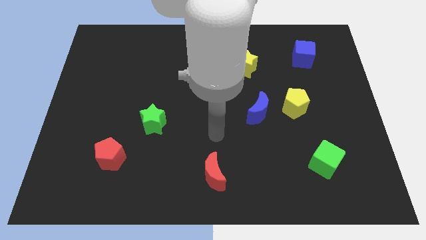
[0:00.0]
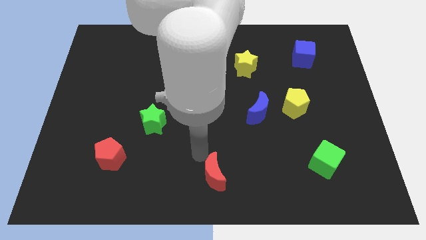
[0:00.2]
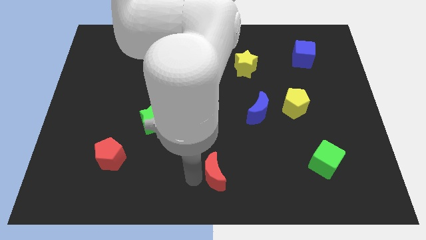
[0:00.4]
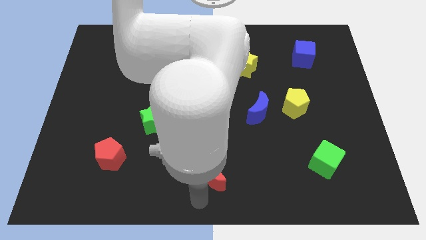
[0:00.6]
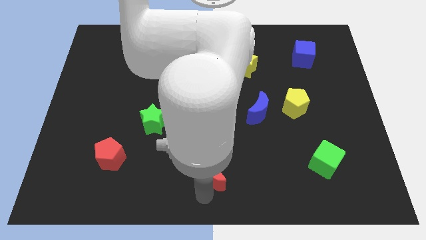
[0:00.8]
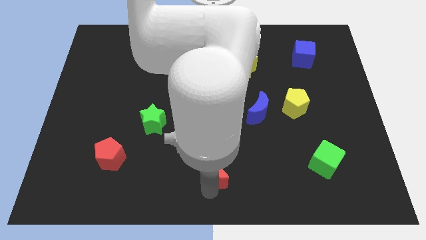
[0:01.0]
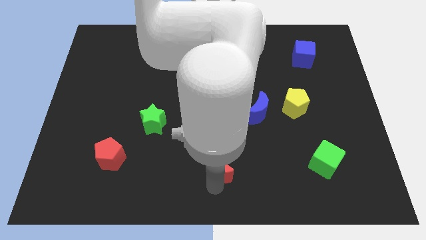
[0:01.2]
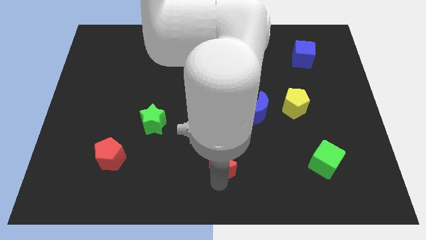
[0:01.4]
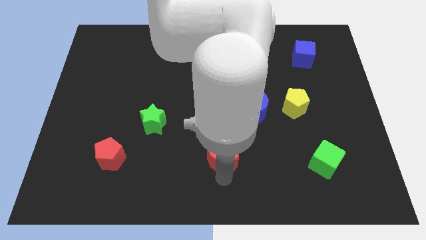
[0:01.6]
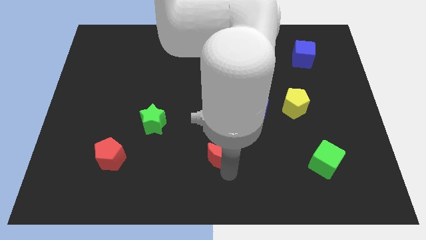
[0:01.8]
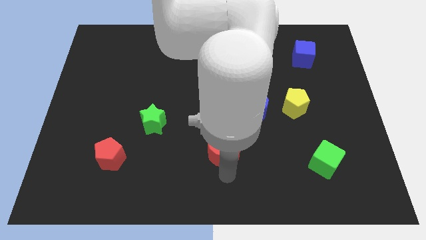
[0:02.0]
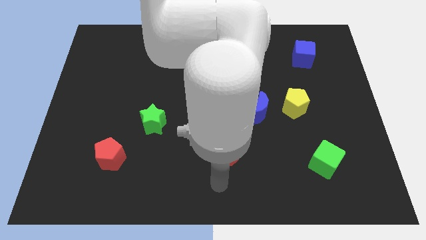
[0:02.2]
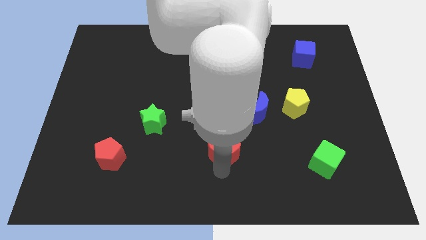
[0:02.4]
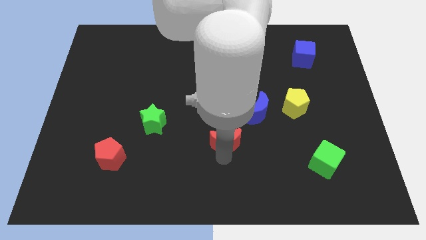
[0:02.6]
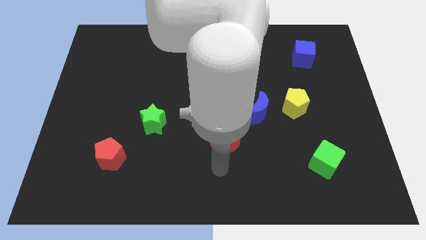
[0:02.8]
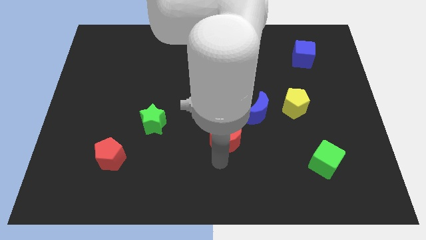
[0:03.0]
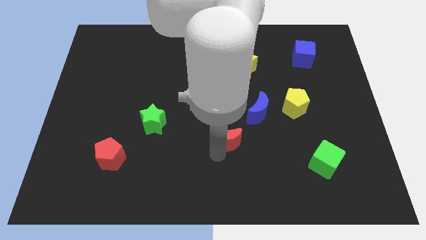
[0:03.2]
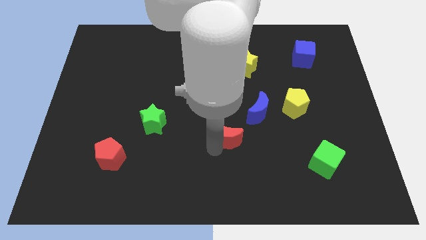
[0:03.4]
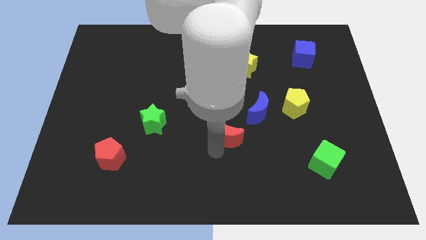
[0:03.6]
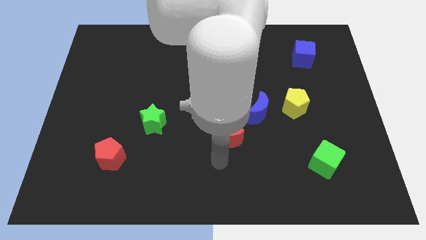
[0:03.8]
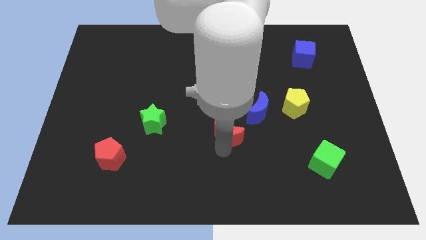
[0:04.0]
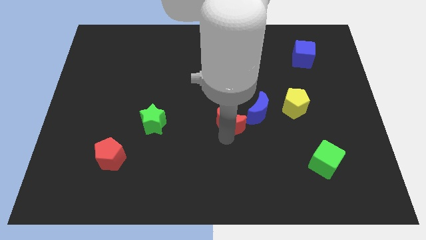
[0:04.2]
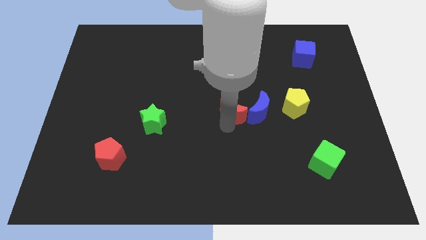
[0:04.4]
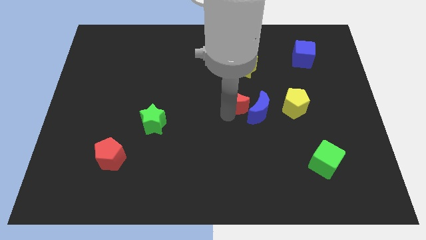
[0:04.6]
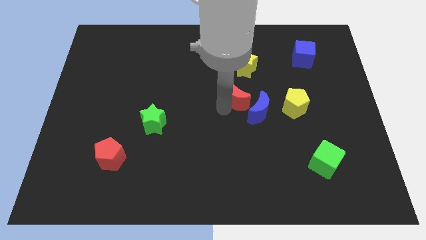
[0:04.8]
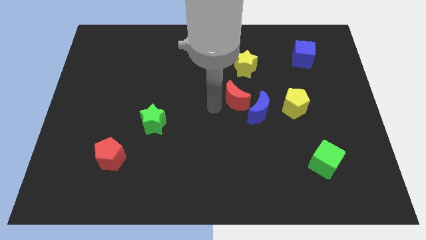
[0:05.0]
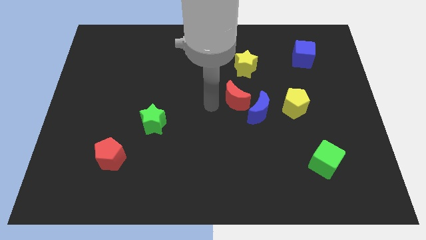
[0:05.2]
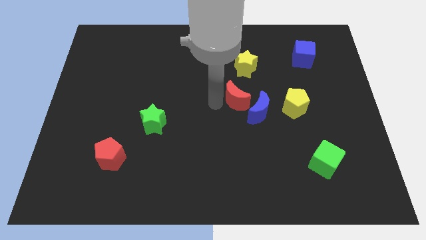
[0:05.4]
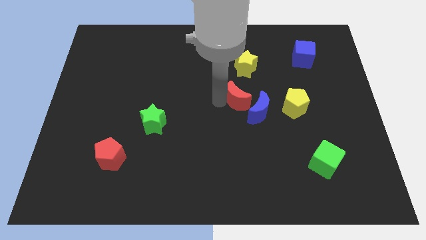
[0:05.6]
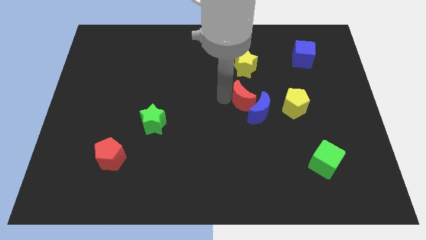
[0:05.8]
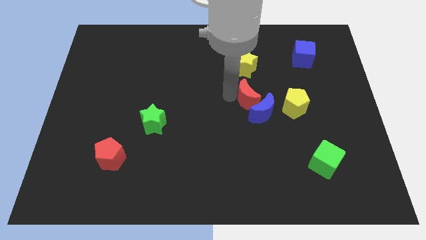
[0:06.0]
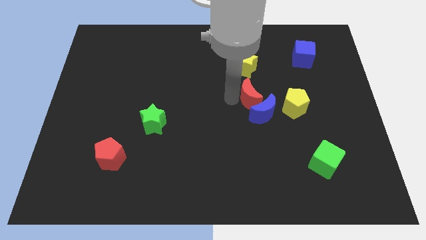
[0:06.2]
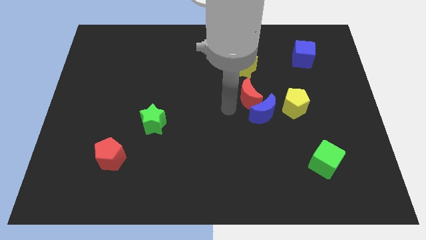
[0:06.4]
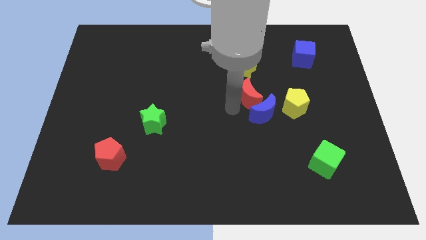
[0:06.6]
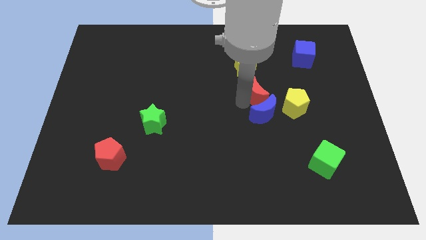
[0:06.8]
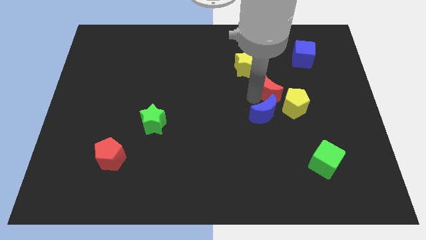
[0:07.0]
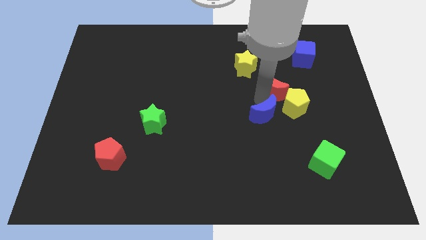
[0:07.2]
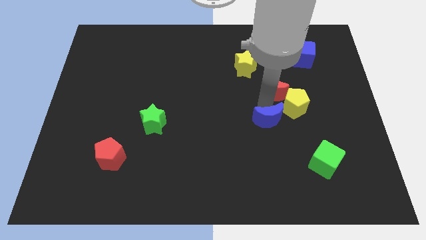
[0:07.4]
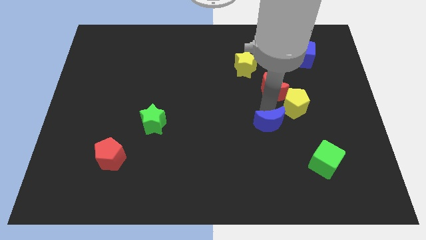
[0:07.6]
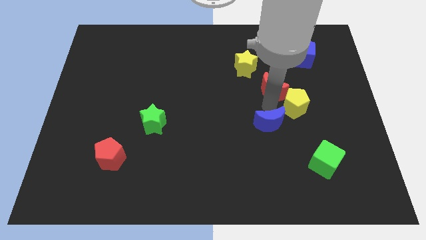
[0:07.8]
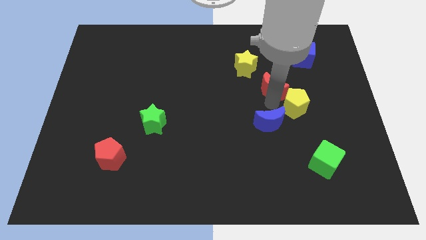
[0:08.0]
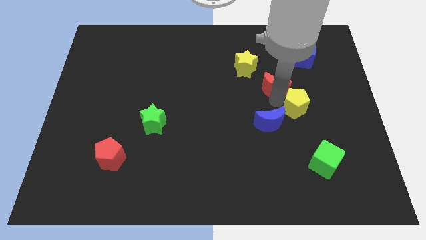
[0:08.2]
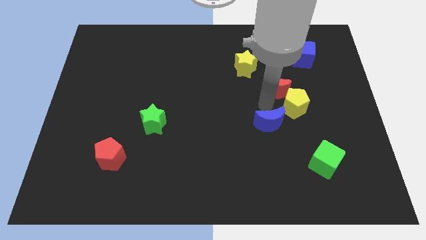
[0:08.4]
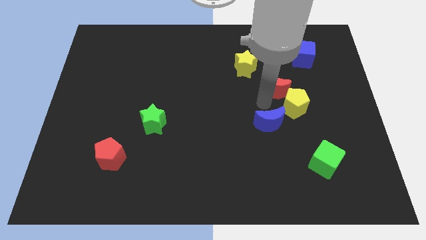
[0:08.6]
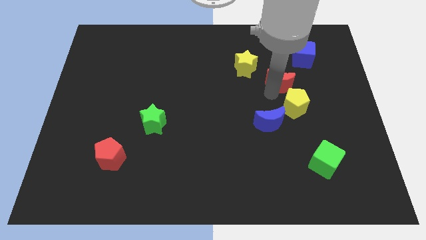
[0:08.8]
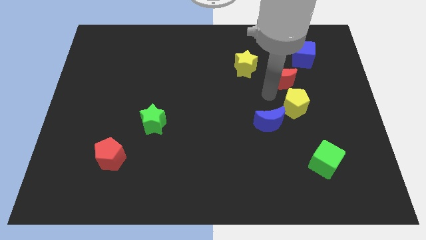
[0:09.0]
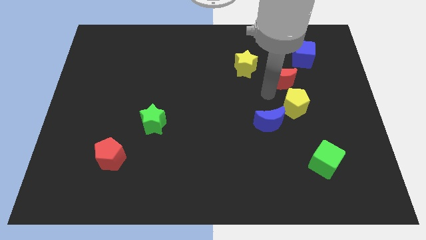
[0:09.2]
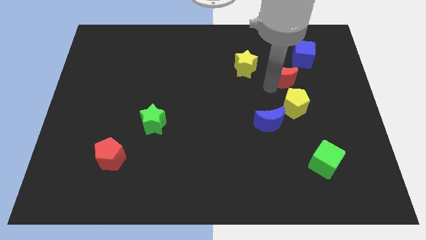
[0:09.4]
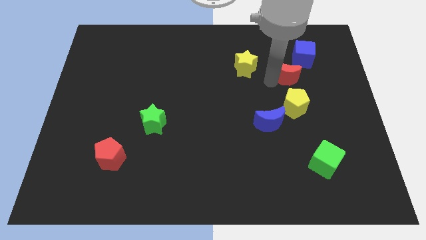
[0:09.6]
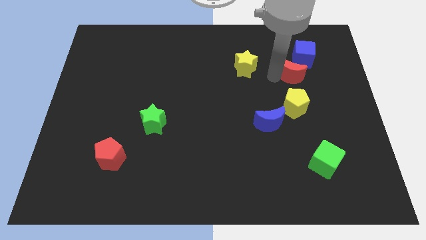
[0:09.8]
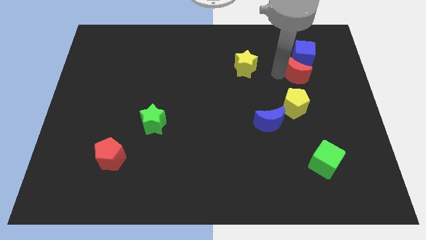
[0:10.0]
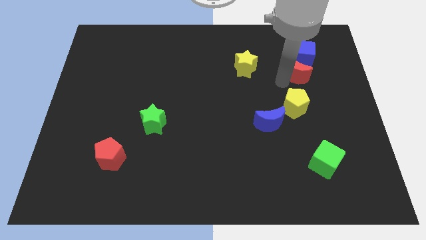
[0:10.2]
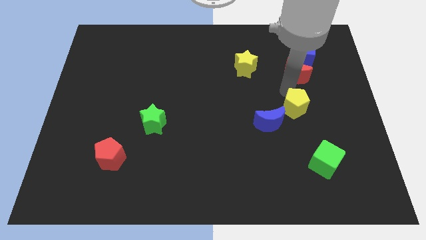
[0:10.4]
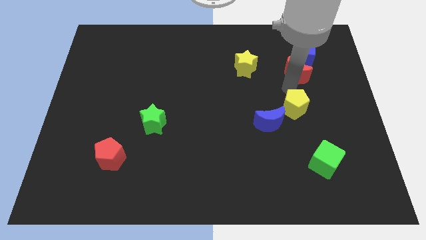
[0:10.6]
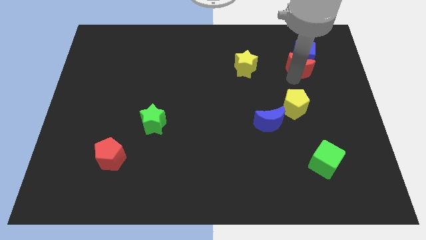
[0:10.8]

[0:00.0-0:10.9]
push the red moon next to the blue cube

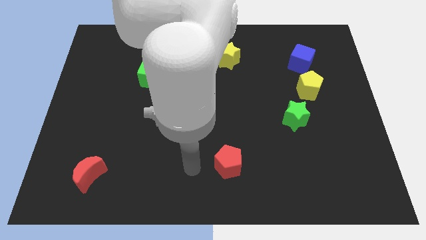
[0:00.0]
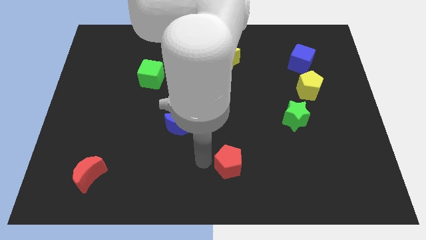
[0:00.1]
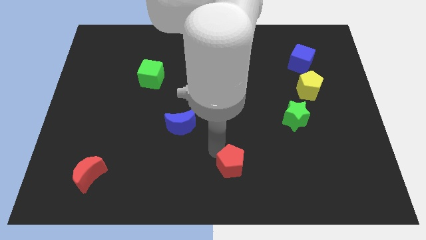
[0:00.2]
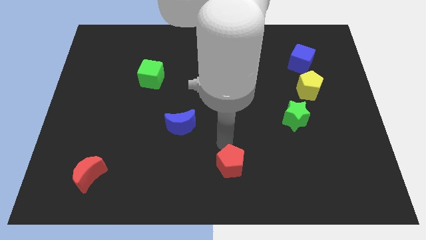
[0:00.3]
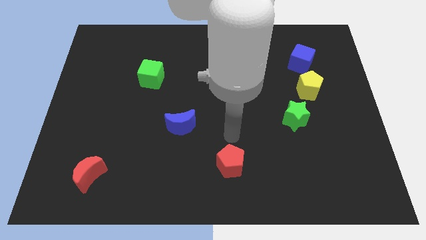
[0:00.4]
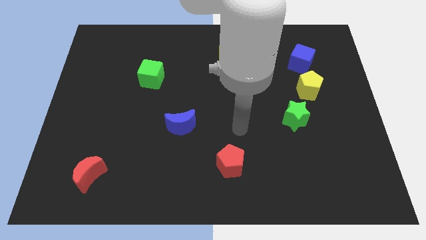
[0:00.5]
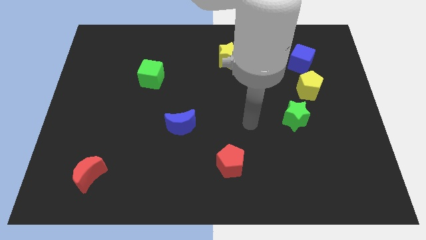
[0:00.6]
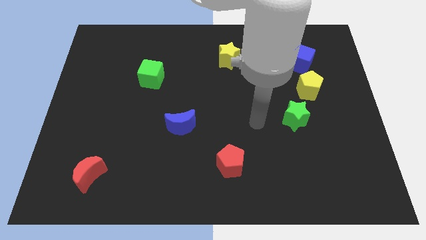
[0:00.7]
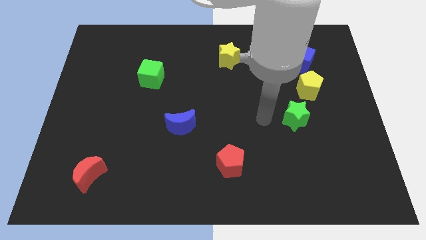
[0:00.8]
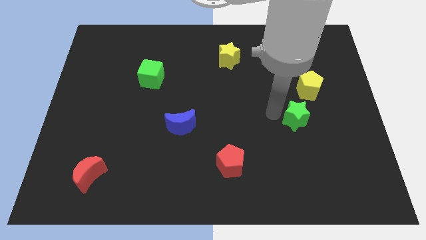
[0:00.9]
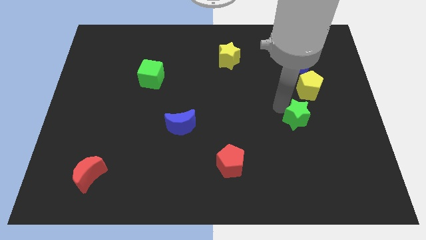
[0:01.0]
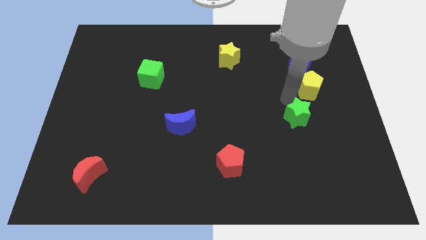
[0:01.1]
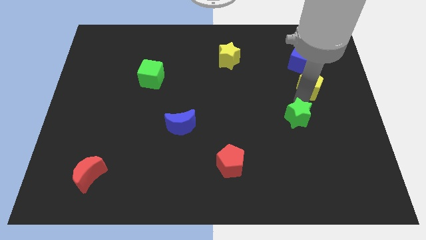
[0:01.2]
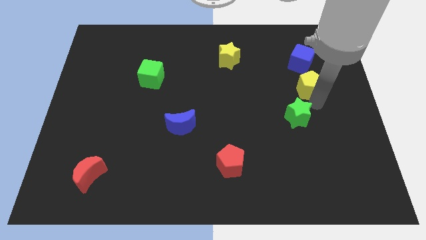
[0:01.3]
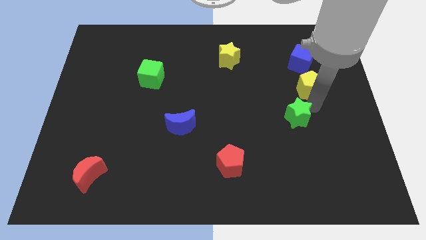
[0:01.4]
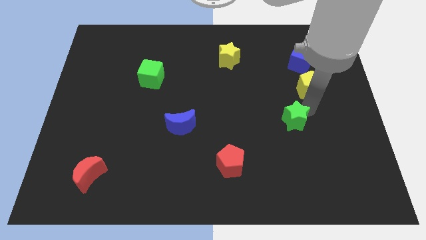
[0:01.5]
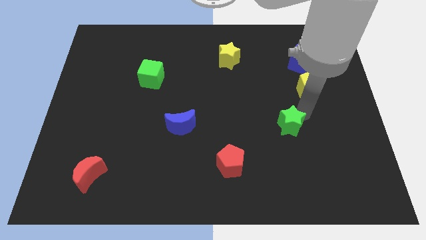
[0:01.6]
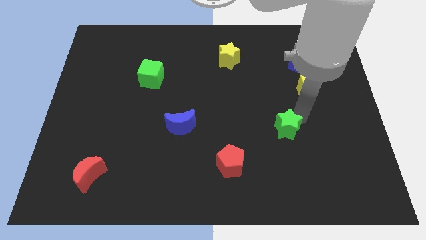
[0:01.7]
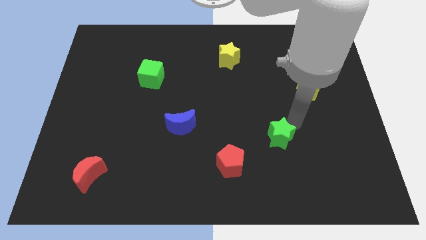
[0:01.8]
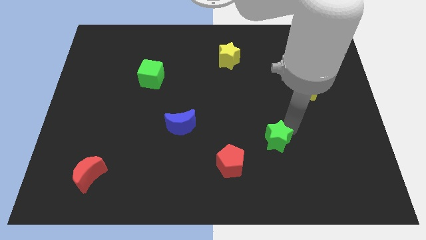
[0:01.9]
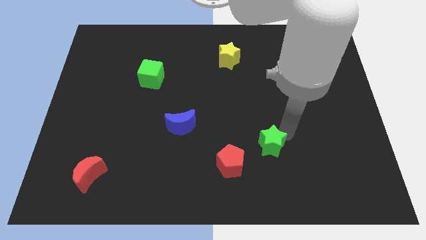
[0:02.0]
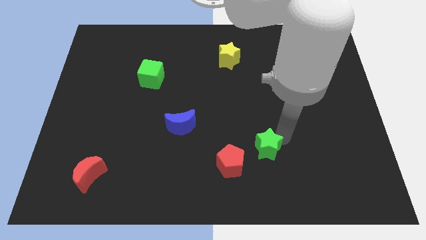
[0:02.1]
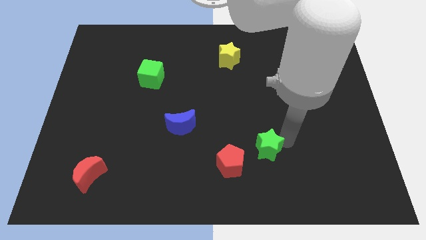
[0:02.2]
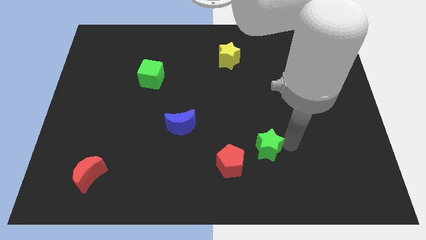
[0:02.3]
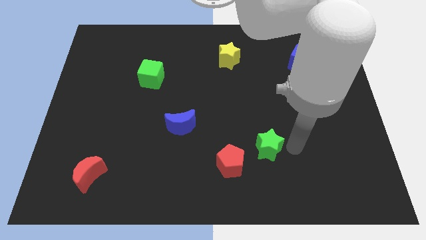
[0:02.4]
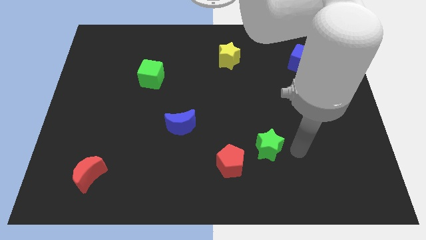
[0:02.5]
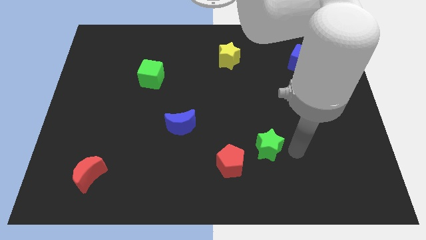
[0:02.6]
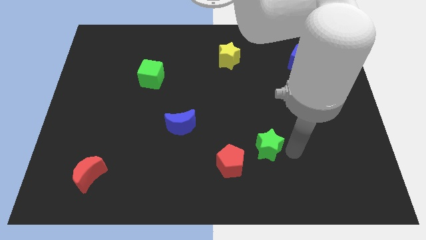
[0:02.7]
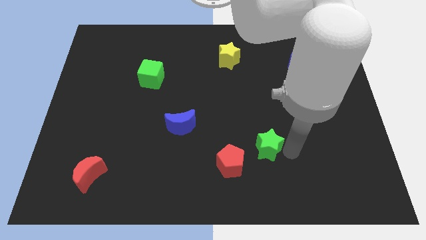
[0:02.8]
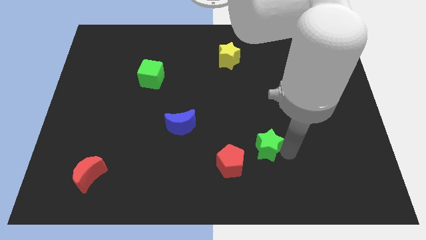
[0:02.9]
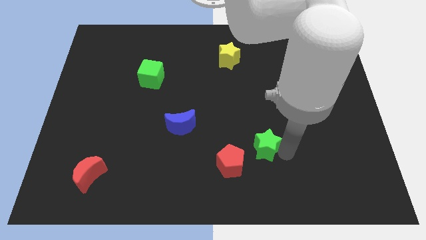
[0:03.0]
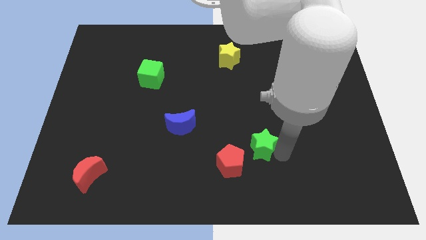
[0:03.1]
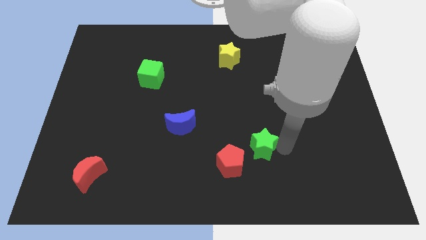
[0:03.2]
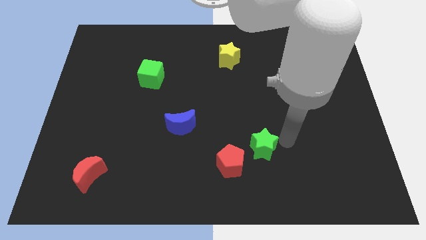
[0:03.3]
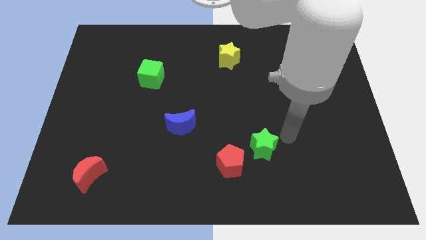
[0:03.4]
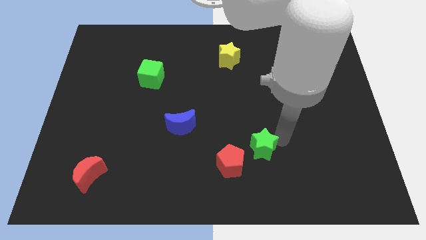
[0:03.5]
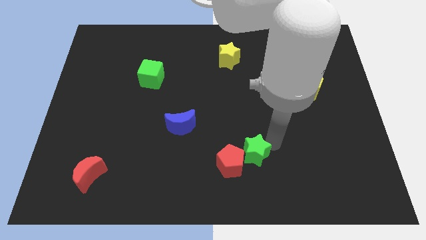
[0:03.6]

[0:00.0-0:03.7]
move the green star next to the red pentagon
